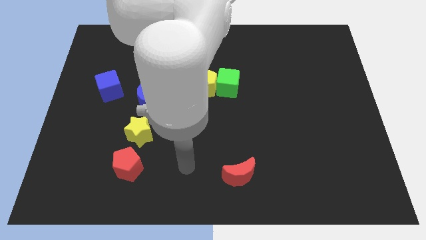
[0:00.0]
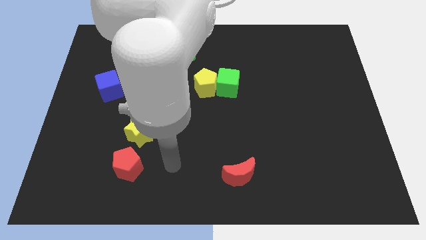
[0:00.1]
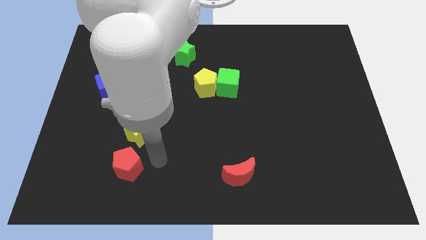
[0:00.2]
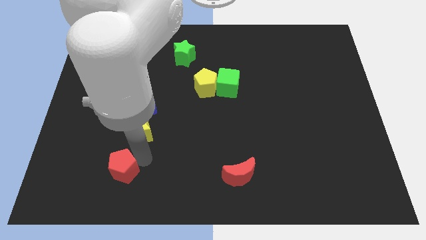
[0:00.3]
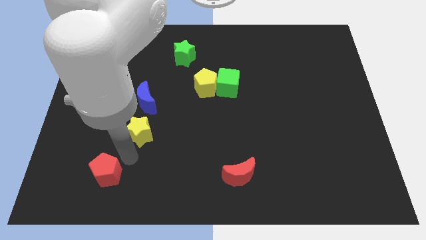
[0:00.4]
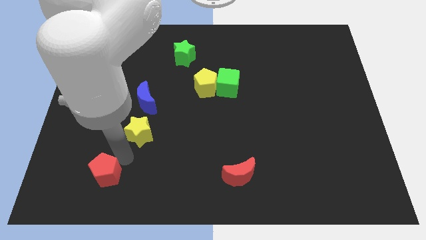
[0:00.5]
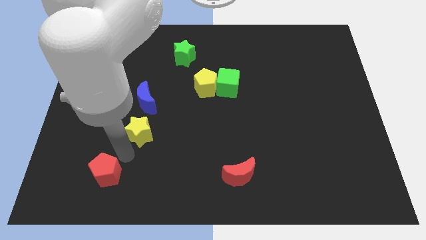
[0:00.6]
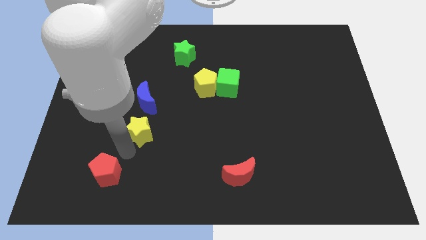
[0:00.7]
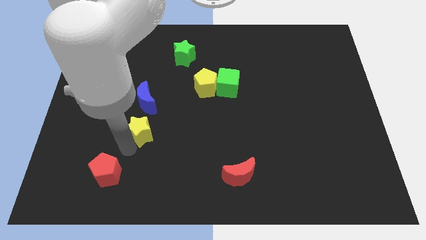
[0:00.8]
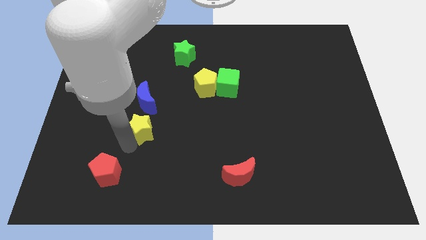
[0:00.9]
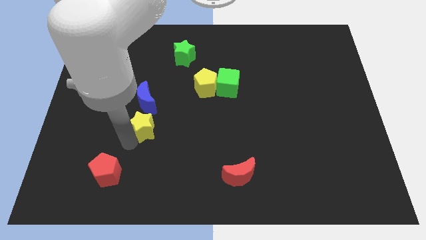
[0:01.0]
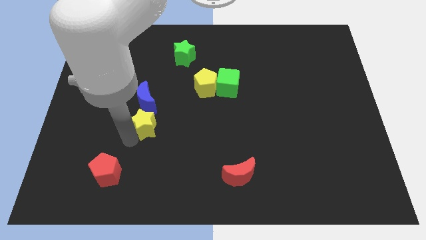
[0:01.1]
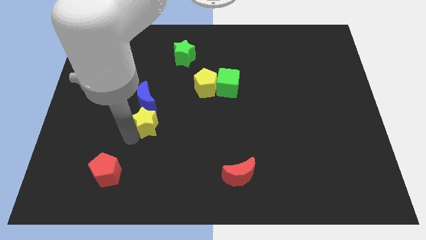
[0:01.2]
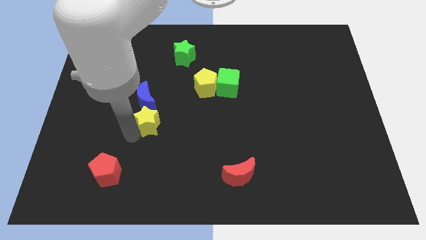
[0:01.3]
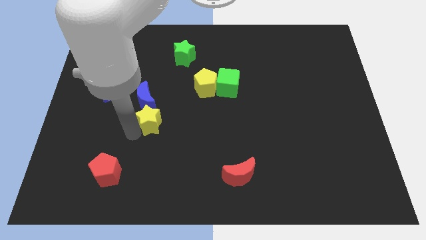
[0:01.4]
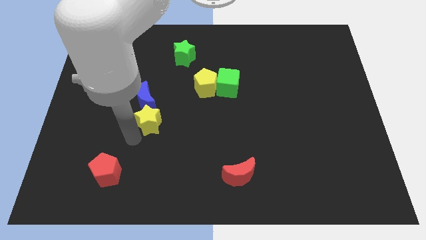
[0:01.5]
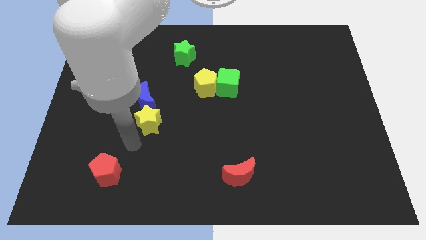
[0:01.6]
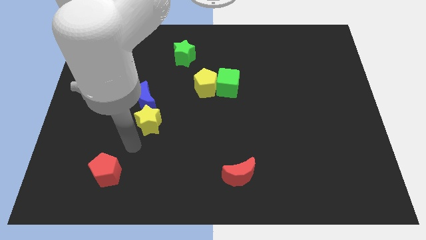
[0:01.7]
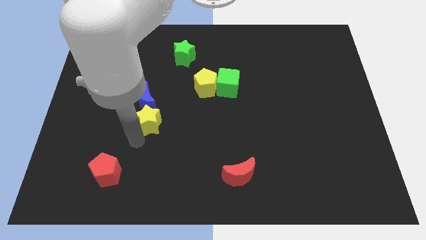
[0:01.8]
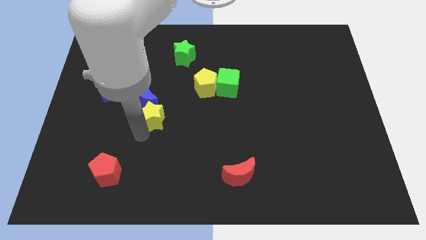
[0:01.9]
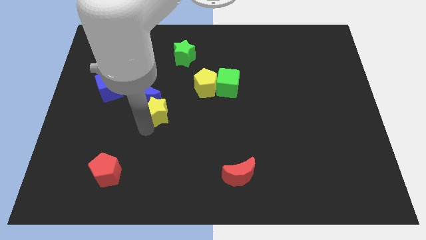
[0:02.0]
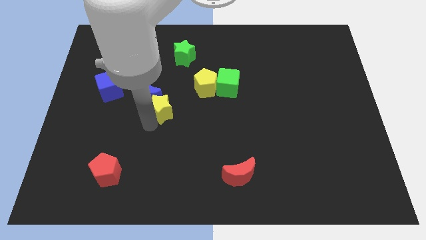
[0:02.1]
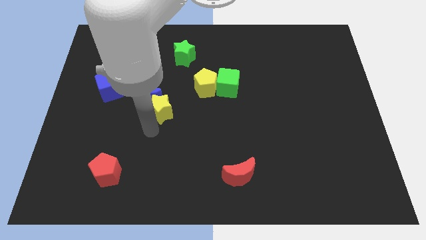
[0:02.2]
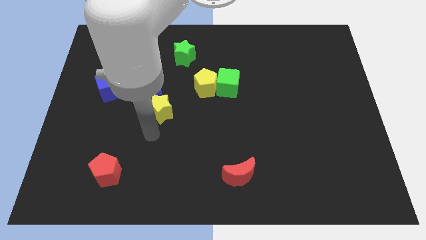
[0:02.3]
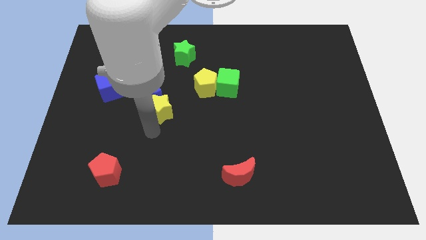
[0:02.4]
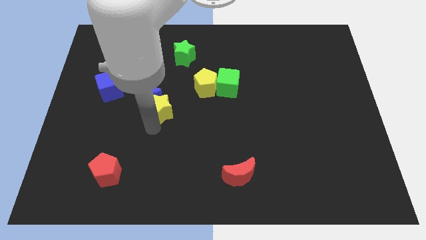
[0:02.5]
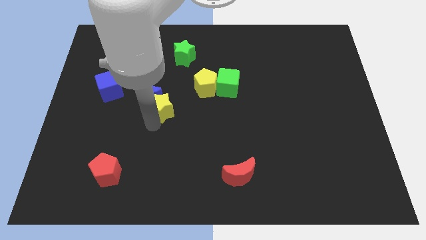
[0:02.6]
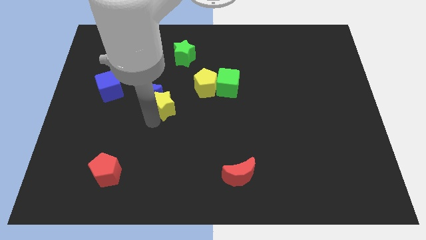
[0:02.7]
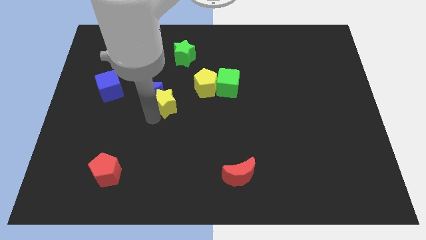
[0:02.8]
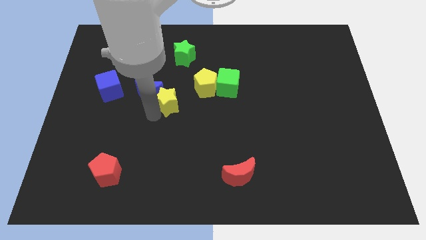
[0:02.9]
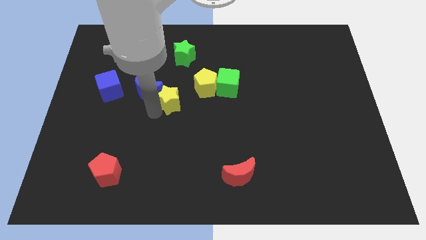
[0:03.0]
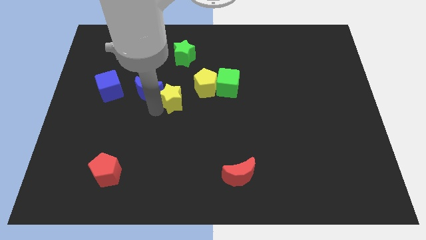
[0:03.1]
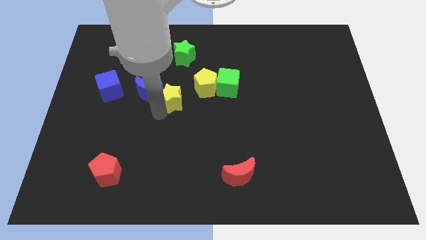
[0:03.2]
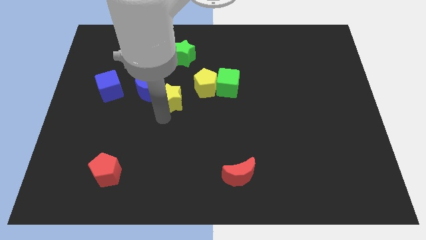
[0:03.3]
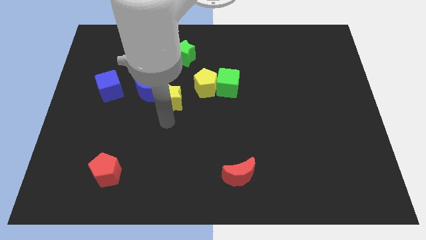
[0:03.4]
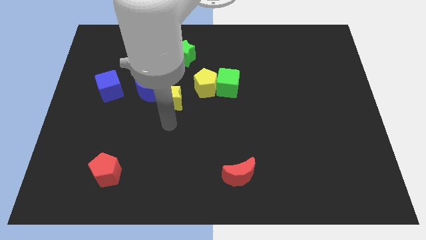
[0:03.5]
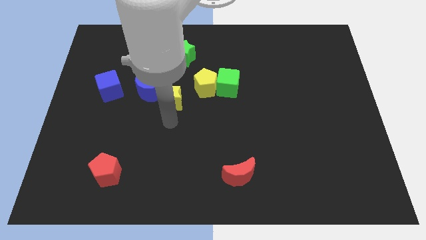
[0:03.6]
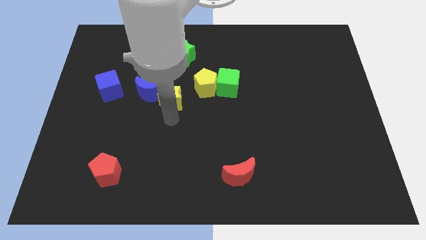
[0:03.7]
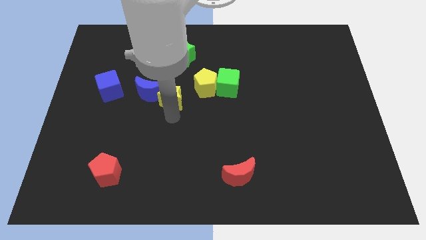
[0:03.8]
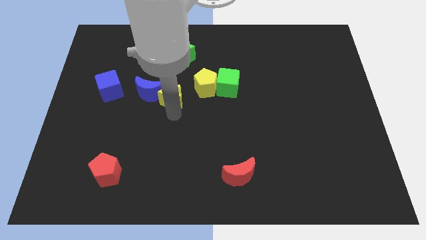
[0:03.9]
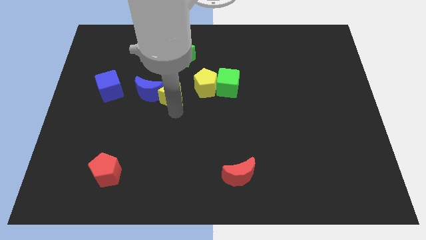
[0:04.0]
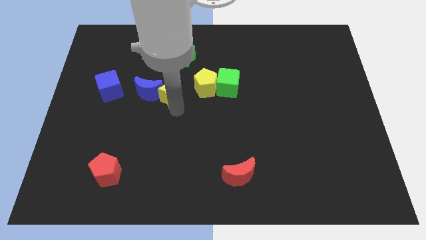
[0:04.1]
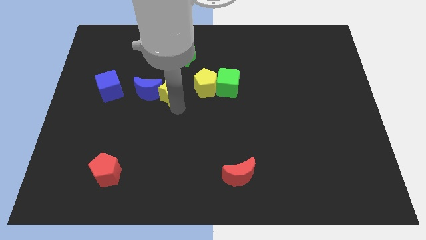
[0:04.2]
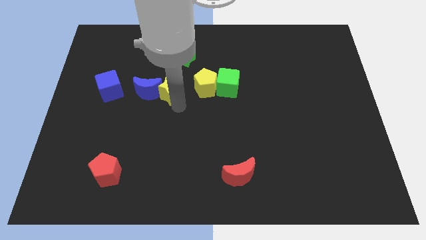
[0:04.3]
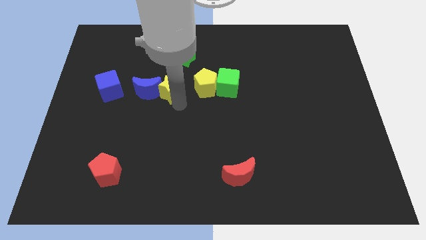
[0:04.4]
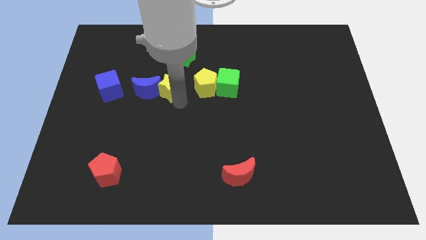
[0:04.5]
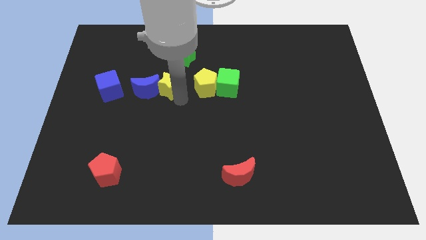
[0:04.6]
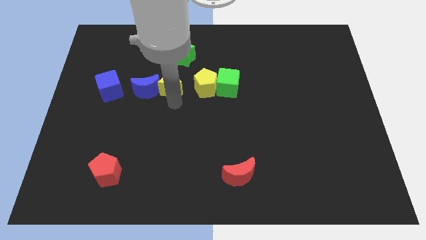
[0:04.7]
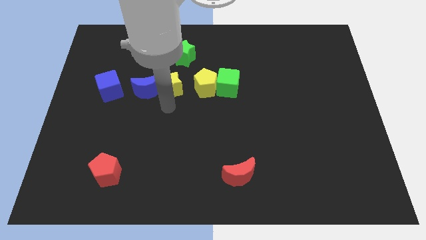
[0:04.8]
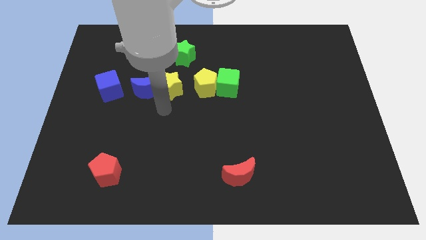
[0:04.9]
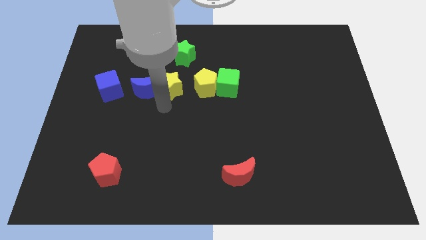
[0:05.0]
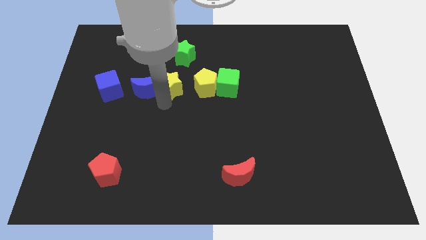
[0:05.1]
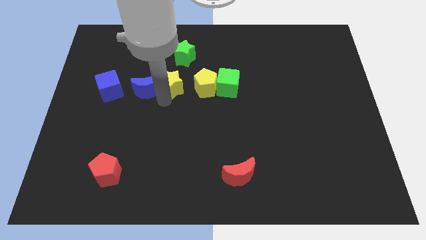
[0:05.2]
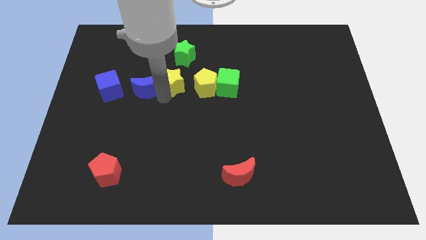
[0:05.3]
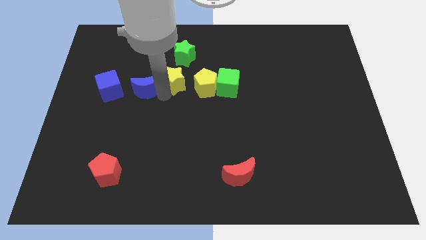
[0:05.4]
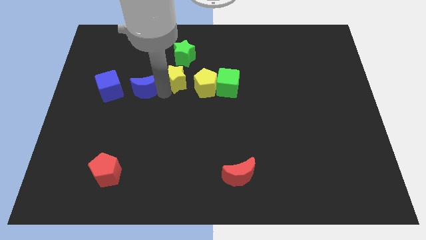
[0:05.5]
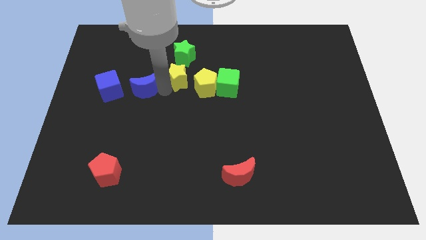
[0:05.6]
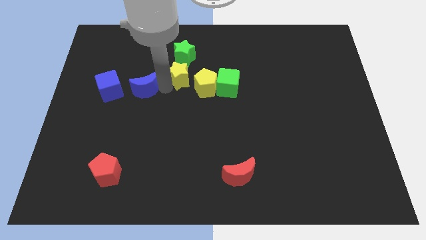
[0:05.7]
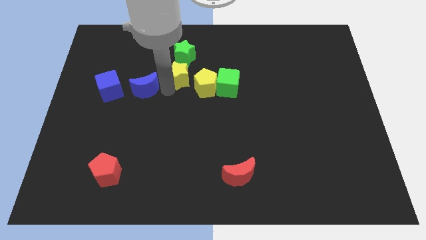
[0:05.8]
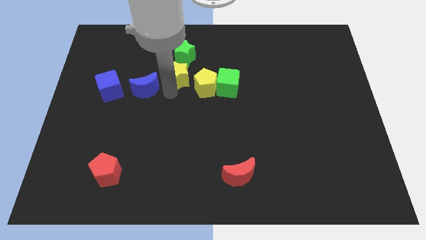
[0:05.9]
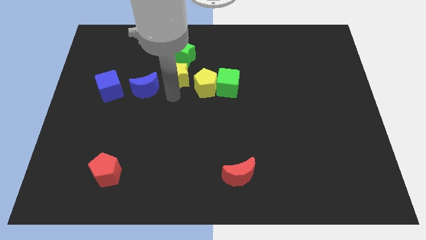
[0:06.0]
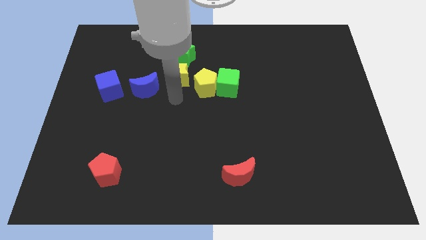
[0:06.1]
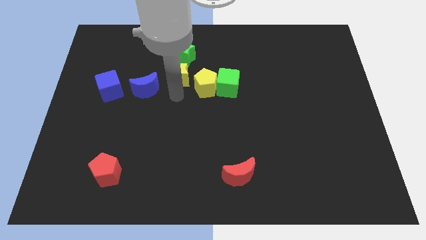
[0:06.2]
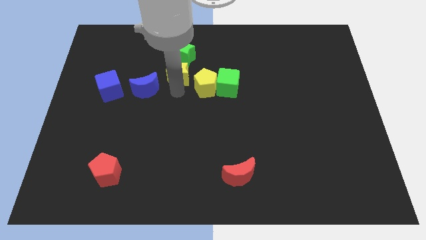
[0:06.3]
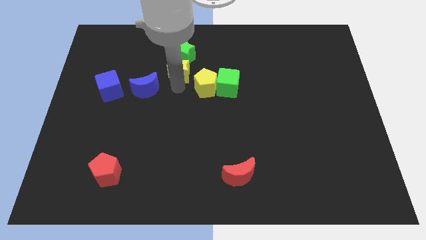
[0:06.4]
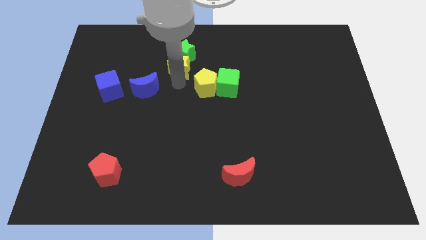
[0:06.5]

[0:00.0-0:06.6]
slide the yellow star to the green star
